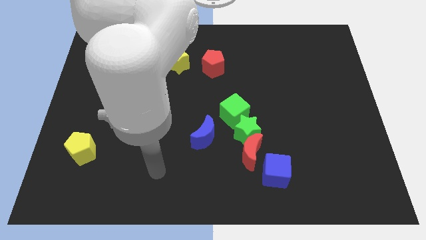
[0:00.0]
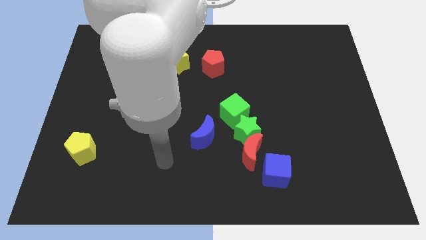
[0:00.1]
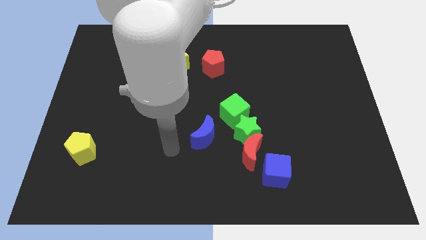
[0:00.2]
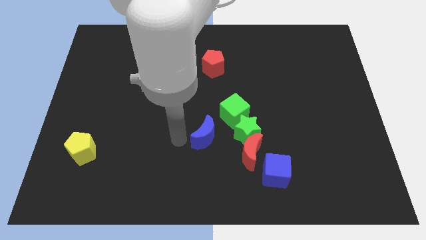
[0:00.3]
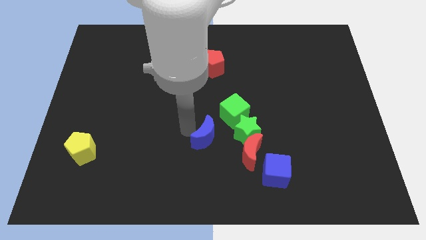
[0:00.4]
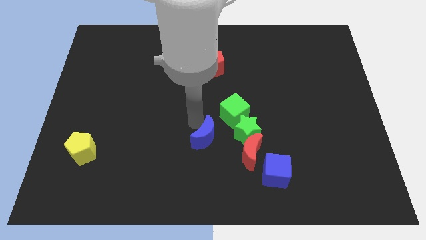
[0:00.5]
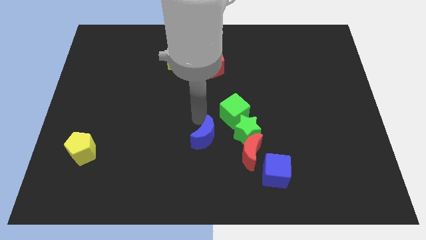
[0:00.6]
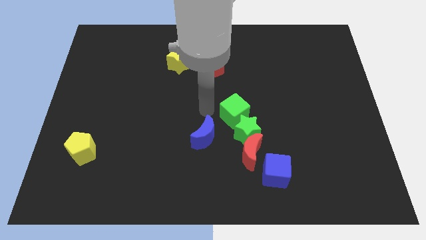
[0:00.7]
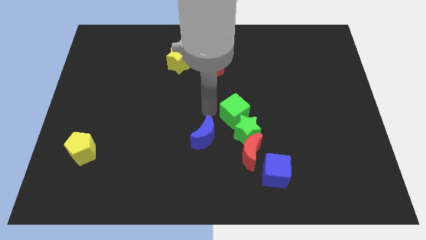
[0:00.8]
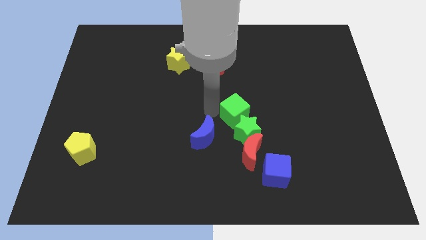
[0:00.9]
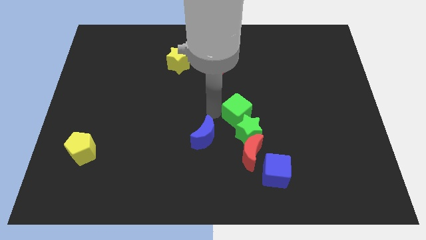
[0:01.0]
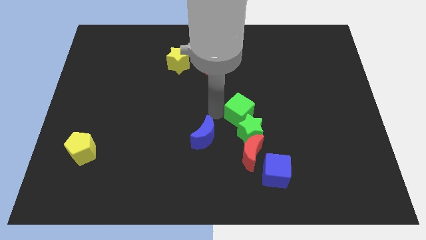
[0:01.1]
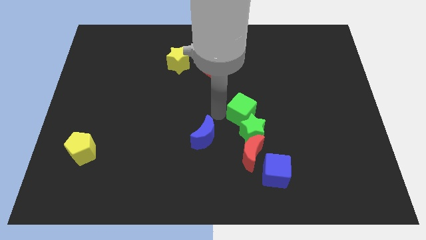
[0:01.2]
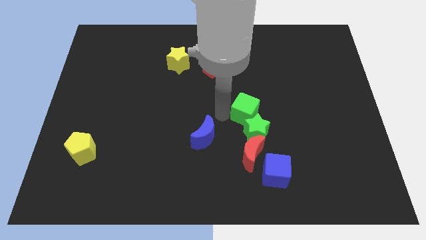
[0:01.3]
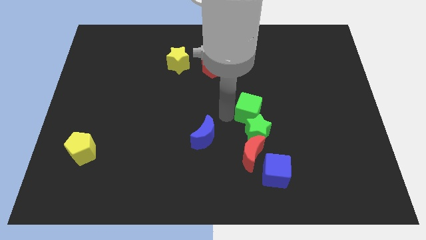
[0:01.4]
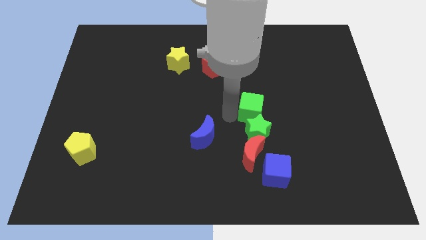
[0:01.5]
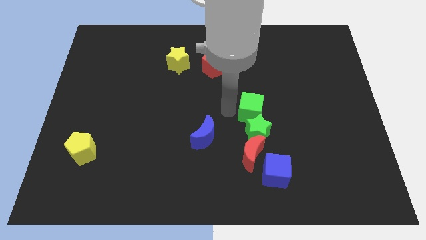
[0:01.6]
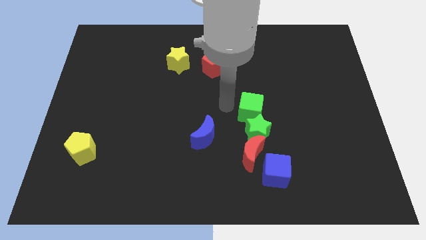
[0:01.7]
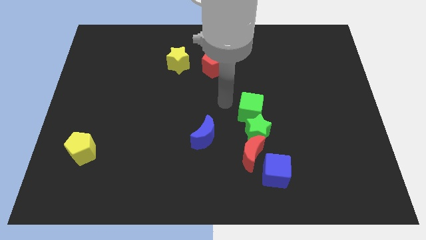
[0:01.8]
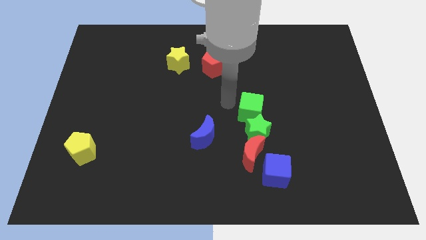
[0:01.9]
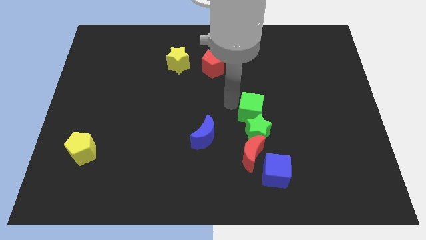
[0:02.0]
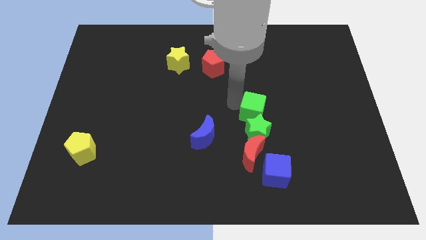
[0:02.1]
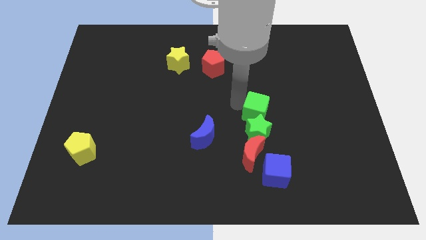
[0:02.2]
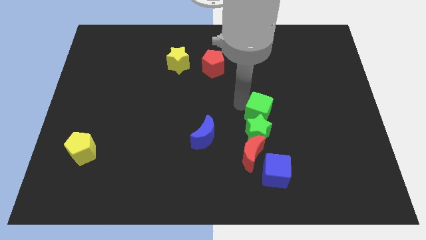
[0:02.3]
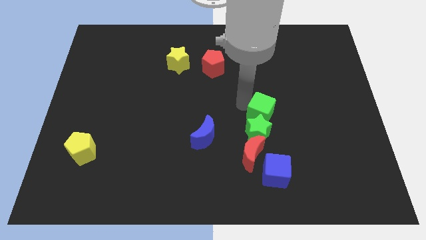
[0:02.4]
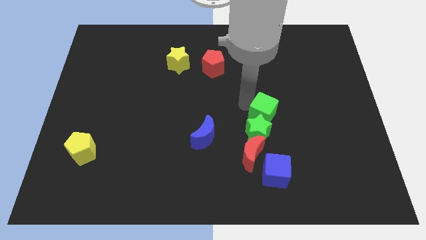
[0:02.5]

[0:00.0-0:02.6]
move the green cube right somewhat

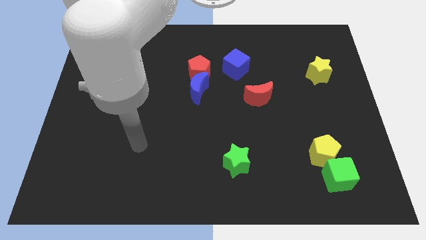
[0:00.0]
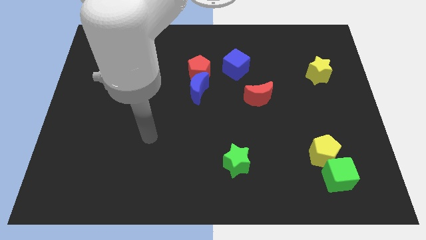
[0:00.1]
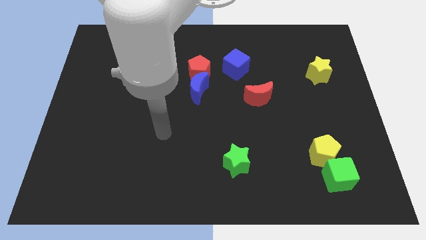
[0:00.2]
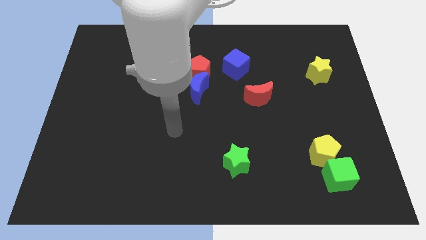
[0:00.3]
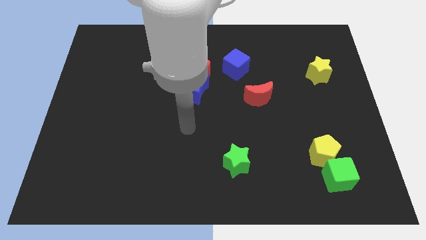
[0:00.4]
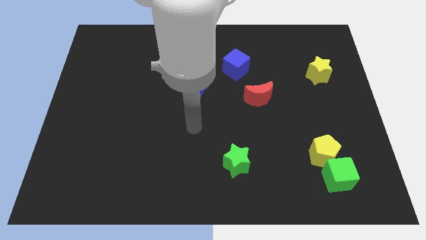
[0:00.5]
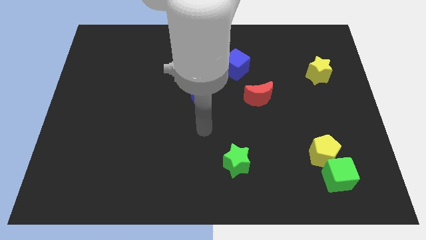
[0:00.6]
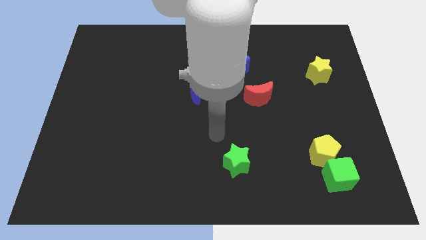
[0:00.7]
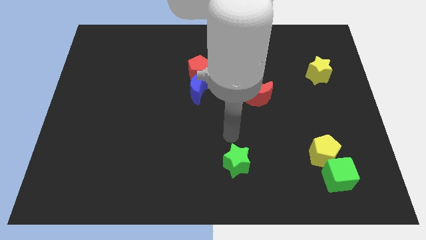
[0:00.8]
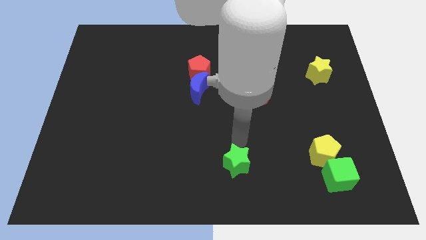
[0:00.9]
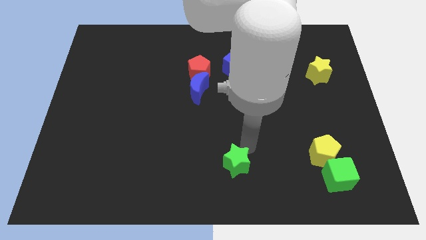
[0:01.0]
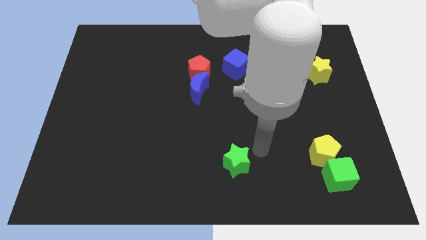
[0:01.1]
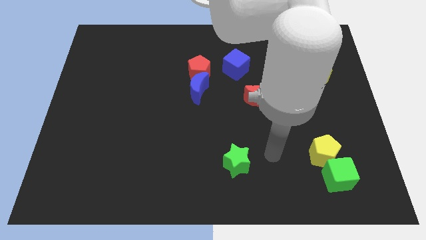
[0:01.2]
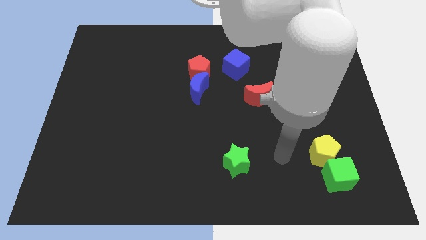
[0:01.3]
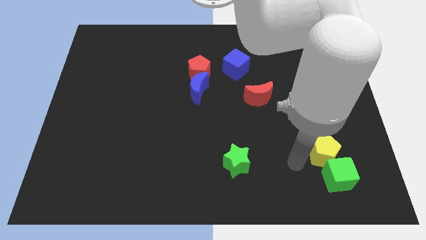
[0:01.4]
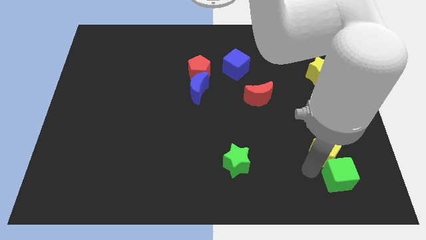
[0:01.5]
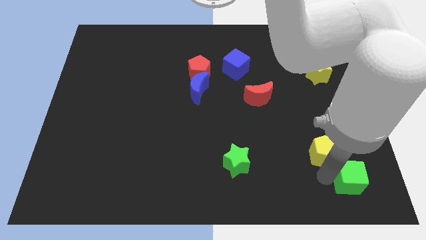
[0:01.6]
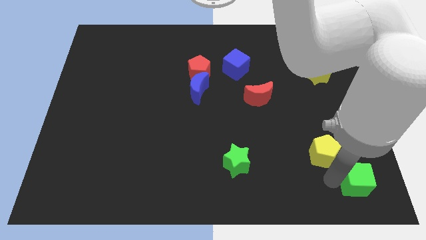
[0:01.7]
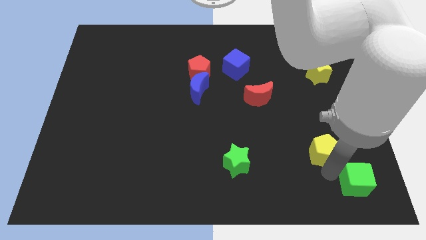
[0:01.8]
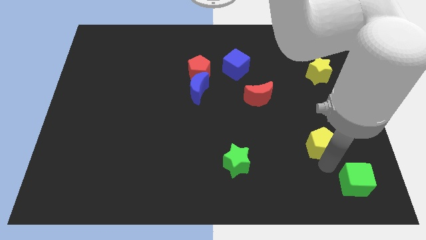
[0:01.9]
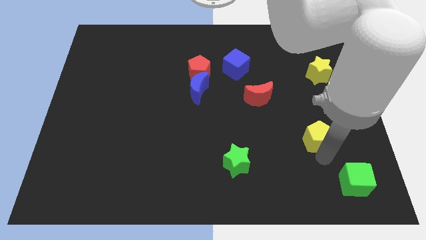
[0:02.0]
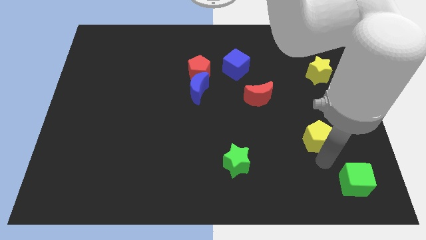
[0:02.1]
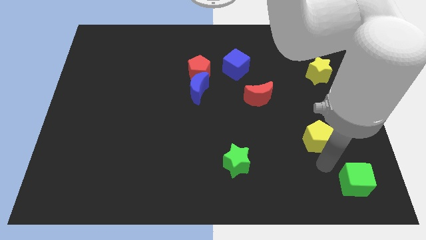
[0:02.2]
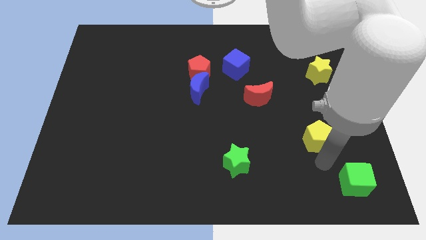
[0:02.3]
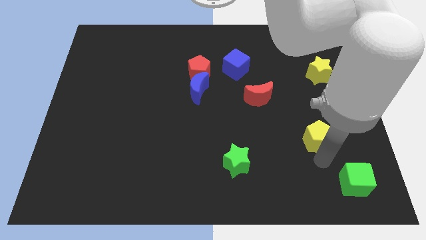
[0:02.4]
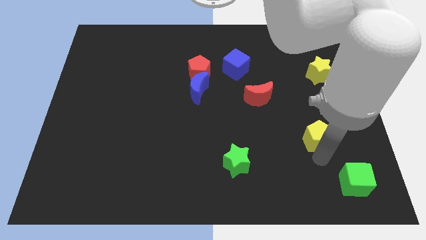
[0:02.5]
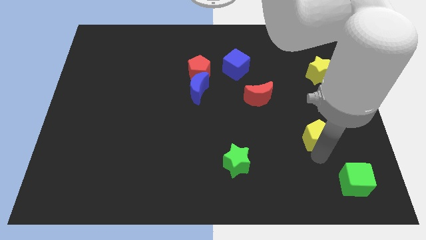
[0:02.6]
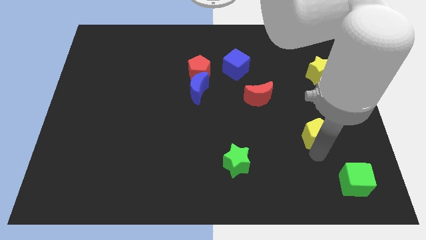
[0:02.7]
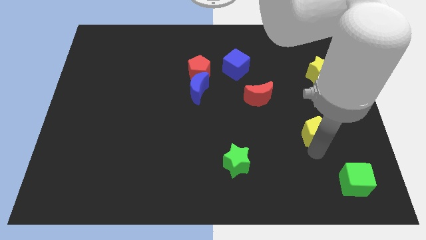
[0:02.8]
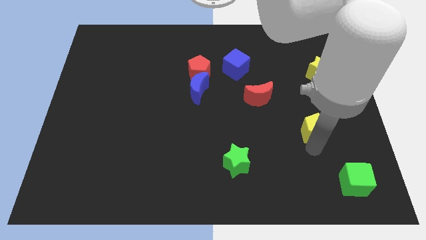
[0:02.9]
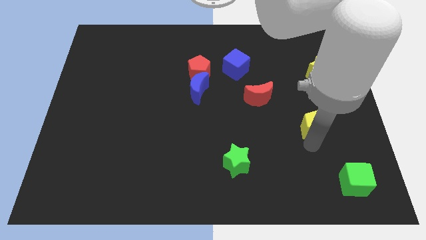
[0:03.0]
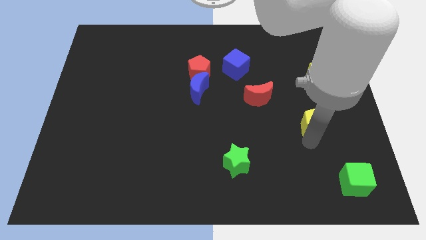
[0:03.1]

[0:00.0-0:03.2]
slide the yellow pentagon a bit upwards

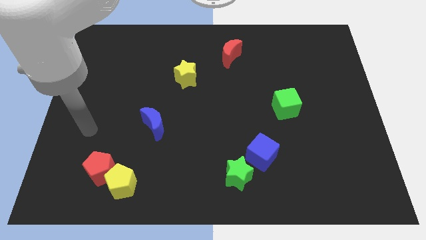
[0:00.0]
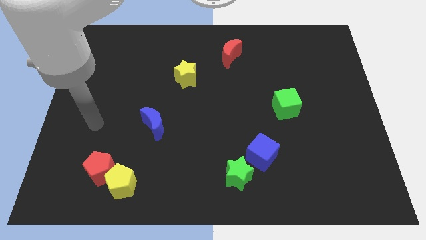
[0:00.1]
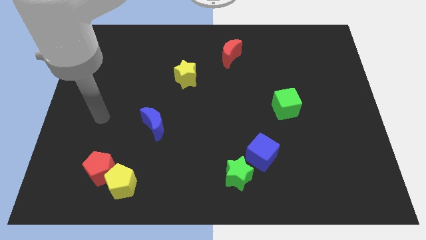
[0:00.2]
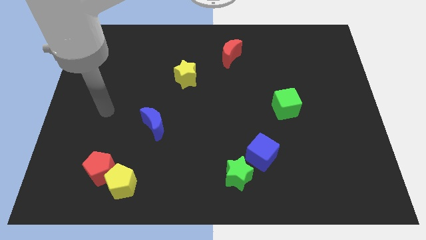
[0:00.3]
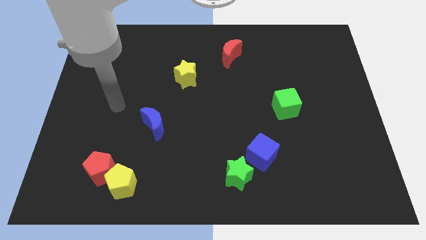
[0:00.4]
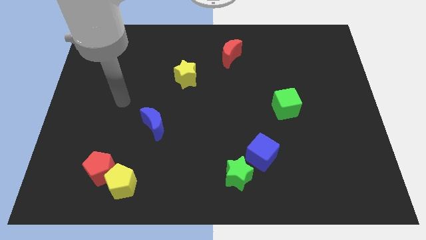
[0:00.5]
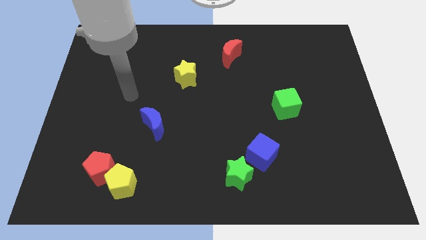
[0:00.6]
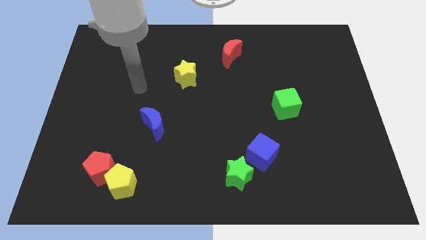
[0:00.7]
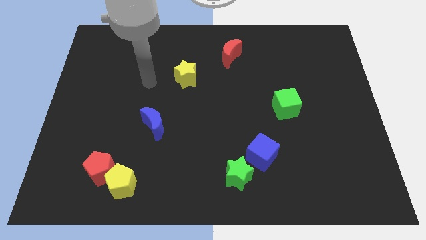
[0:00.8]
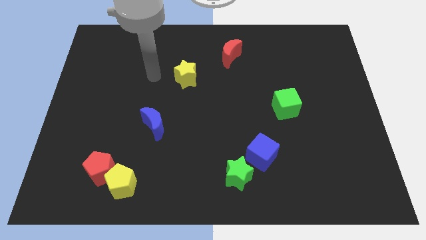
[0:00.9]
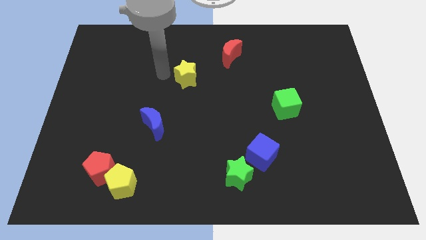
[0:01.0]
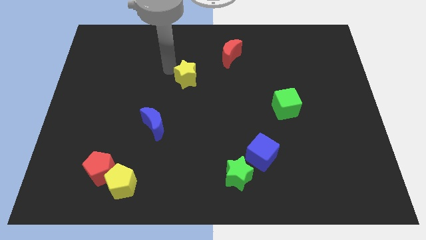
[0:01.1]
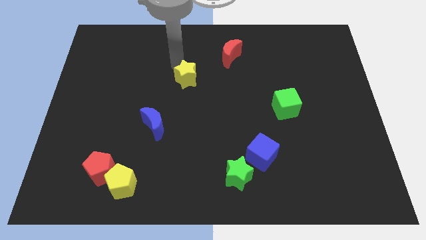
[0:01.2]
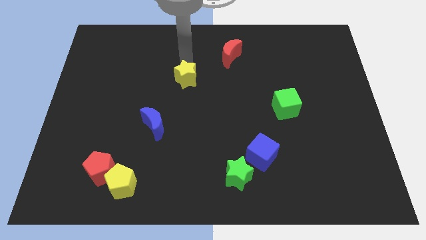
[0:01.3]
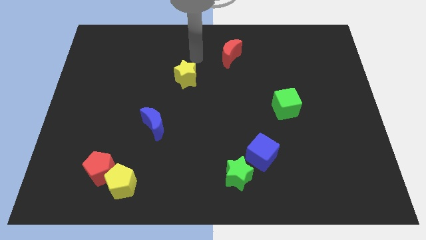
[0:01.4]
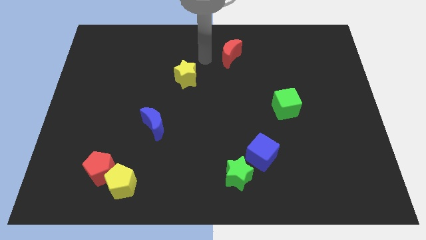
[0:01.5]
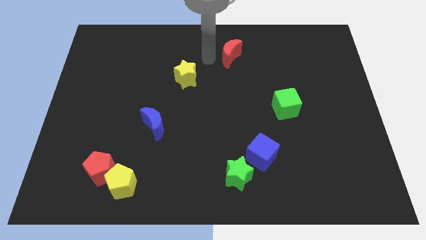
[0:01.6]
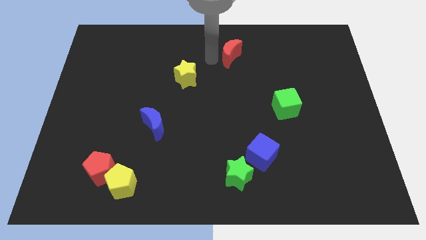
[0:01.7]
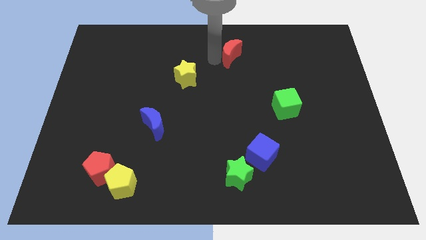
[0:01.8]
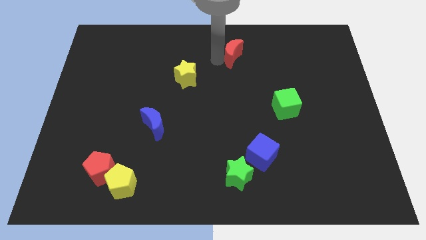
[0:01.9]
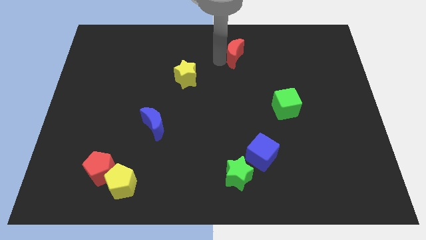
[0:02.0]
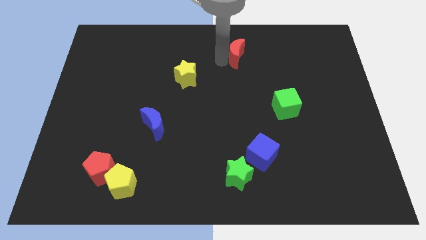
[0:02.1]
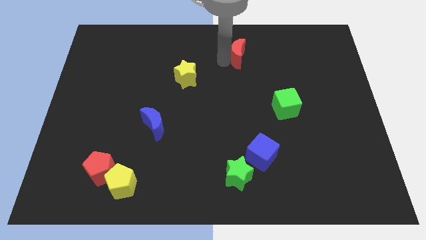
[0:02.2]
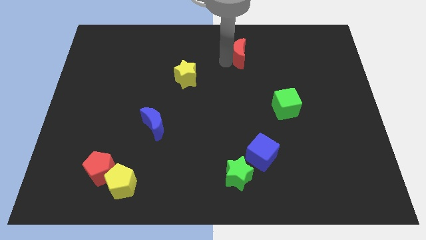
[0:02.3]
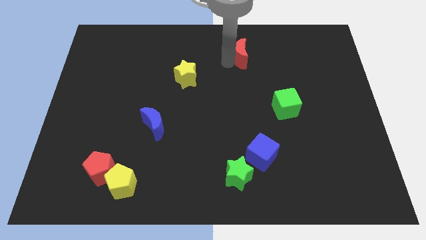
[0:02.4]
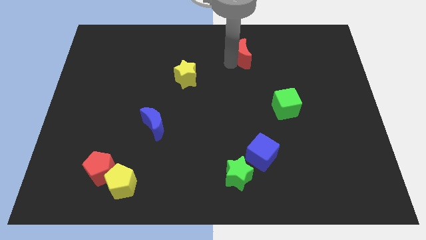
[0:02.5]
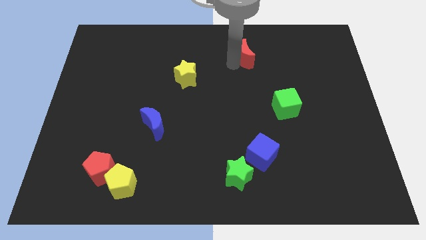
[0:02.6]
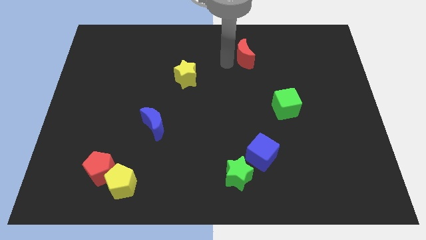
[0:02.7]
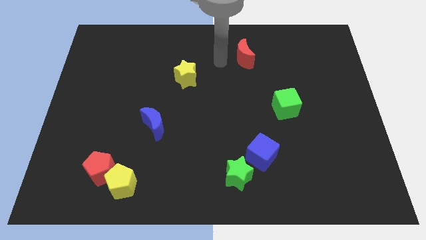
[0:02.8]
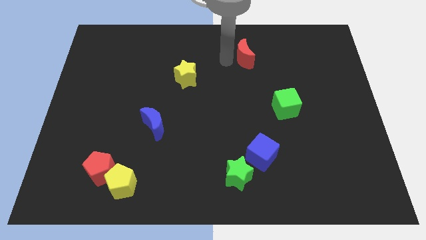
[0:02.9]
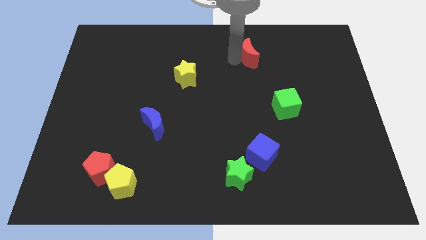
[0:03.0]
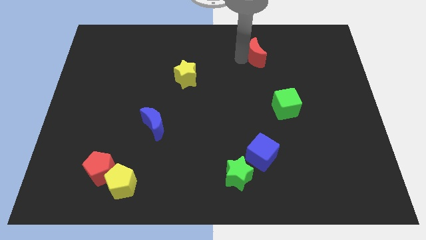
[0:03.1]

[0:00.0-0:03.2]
slightly push the red moon to the right
